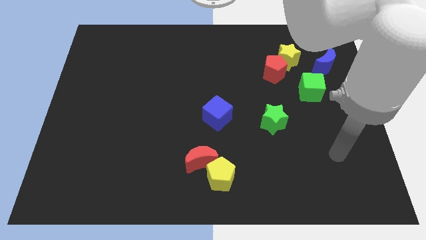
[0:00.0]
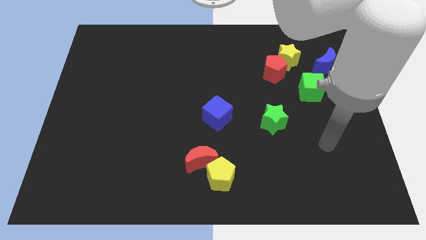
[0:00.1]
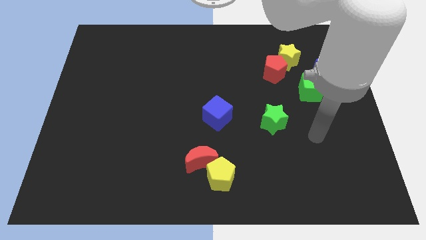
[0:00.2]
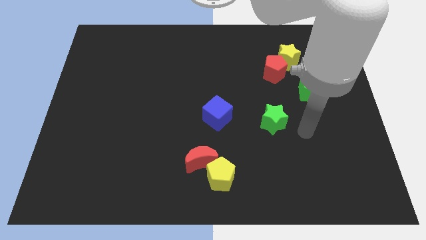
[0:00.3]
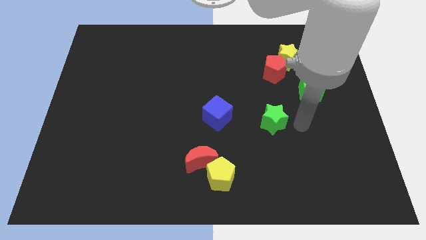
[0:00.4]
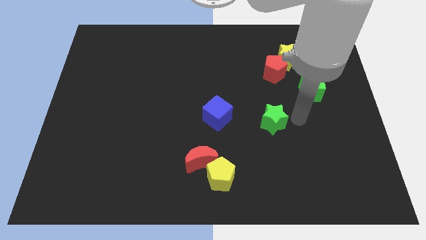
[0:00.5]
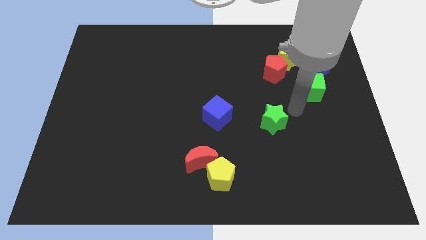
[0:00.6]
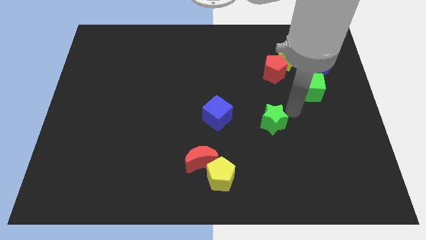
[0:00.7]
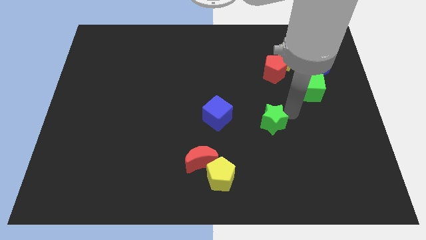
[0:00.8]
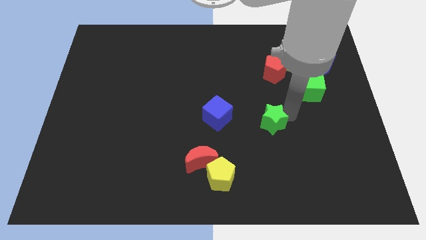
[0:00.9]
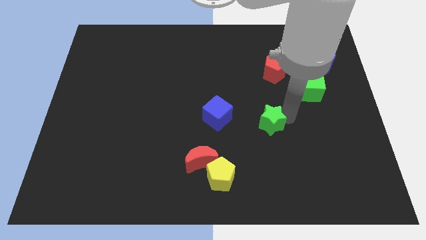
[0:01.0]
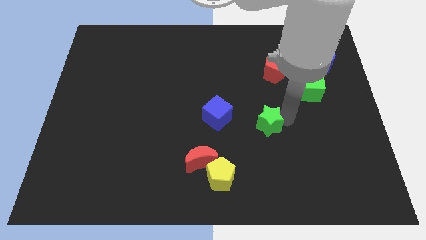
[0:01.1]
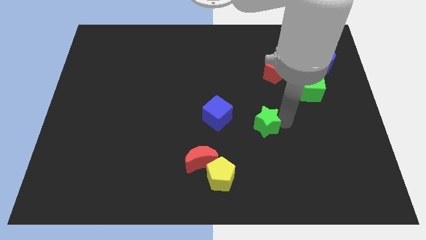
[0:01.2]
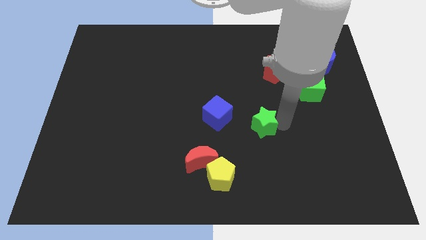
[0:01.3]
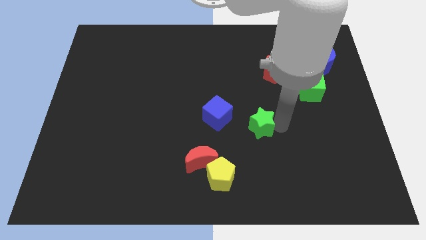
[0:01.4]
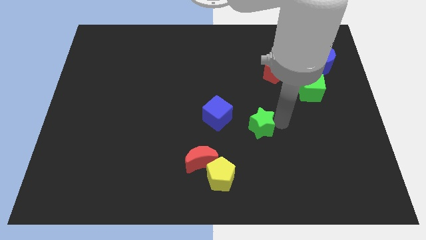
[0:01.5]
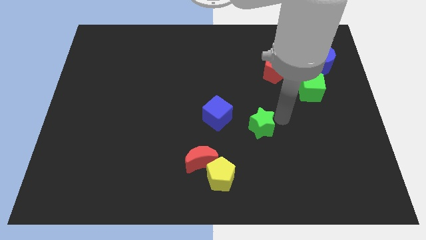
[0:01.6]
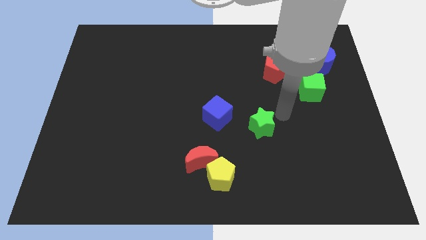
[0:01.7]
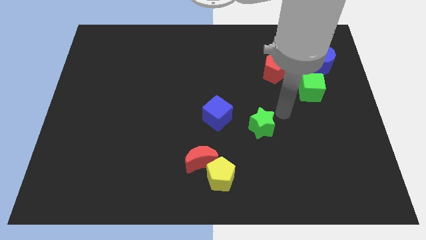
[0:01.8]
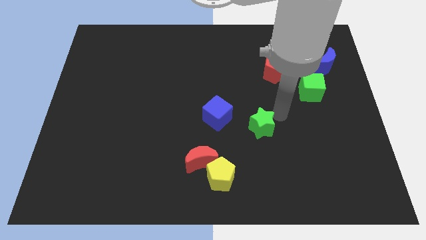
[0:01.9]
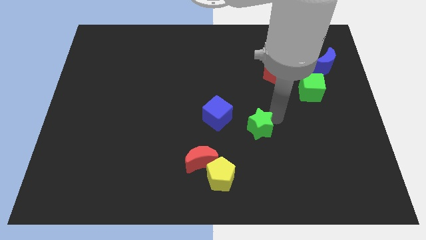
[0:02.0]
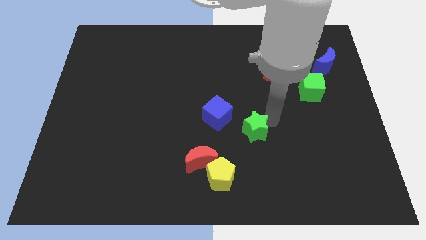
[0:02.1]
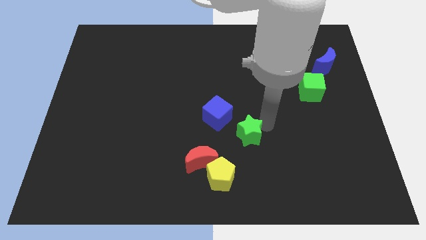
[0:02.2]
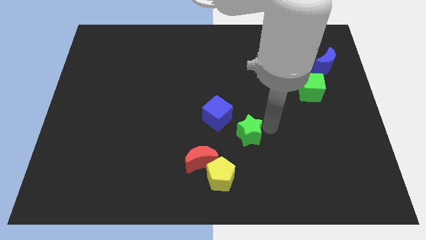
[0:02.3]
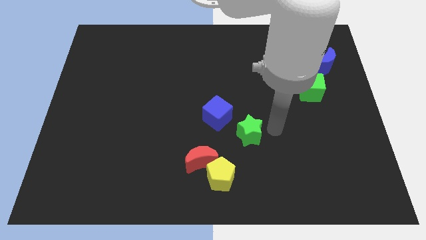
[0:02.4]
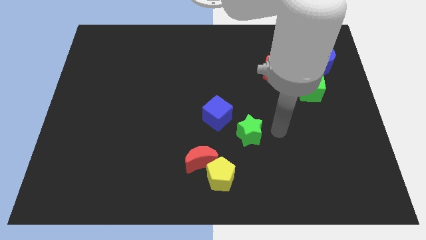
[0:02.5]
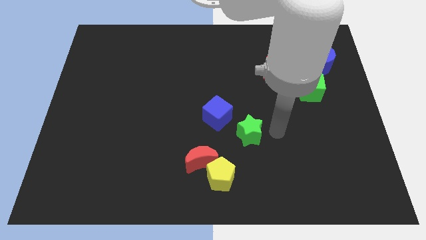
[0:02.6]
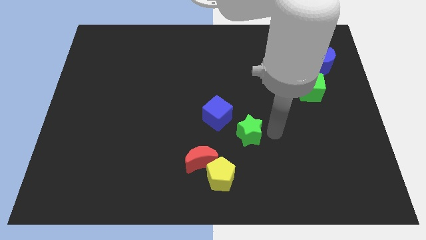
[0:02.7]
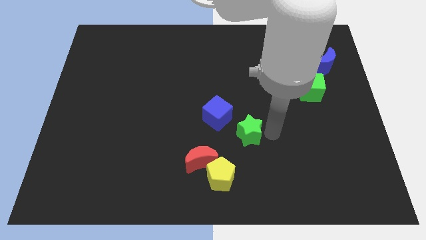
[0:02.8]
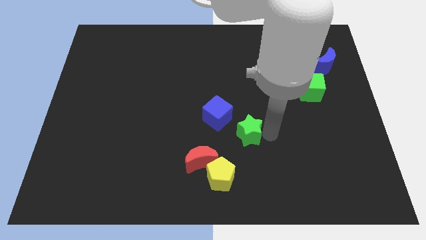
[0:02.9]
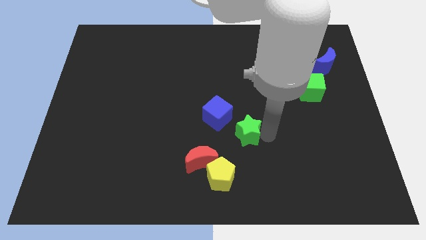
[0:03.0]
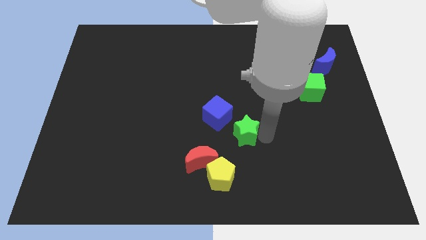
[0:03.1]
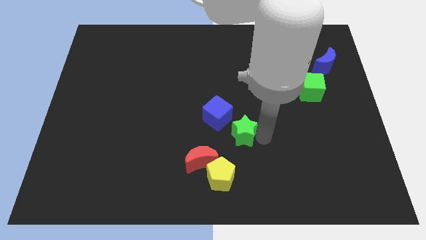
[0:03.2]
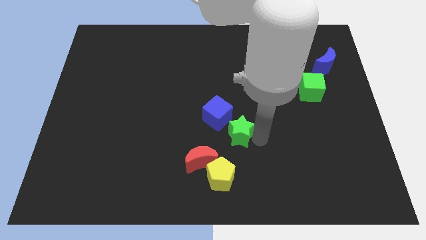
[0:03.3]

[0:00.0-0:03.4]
slightly push the green star left

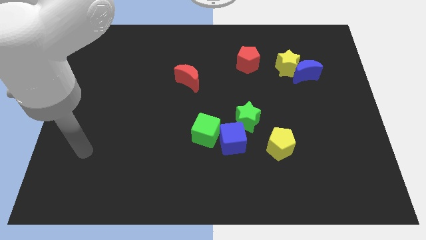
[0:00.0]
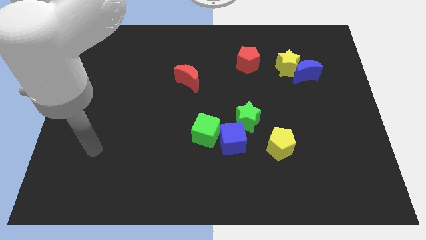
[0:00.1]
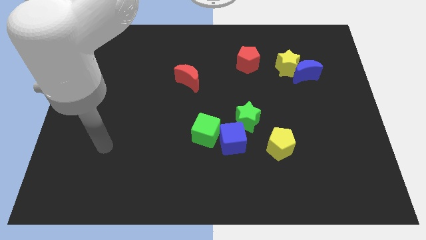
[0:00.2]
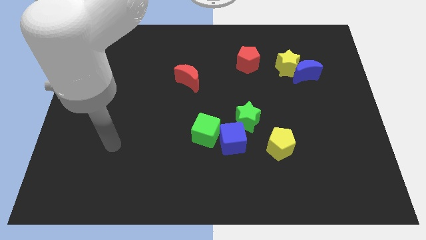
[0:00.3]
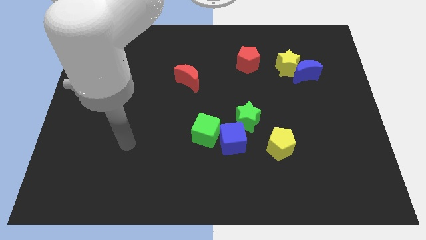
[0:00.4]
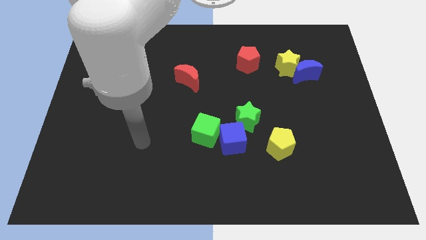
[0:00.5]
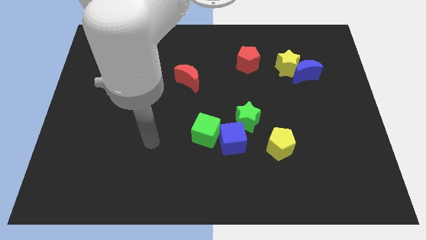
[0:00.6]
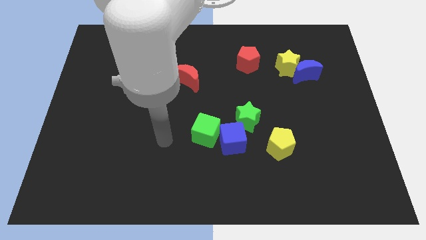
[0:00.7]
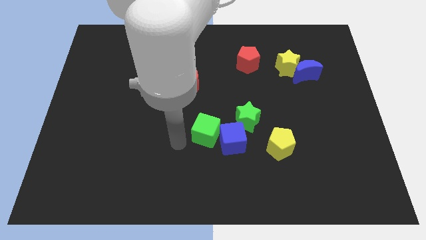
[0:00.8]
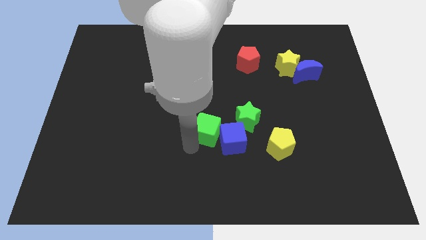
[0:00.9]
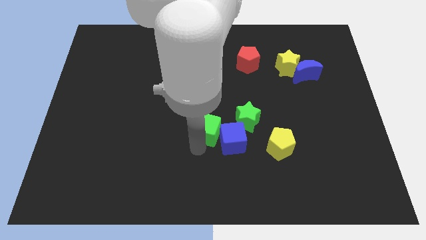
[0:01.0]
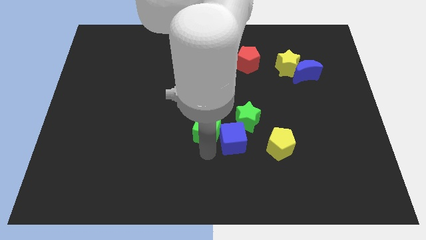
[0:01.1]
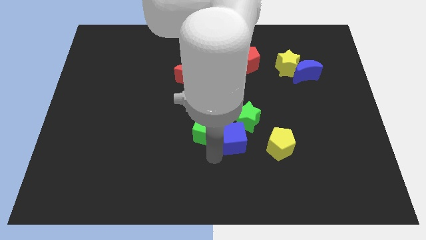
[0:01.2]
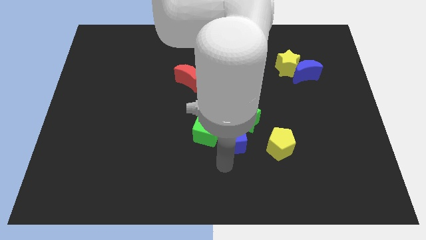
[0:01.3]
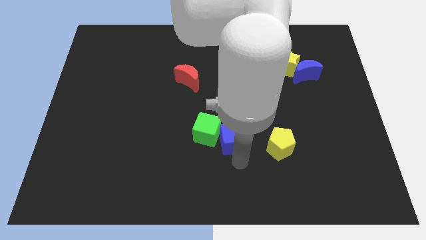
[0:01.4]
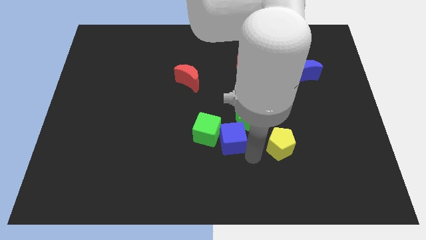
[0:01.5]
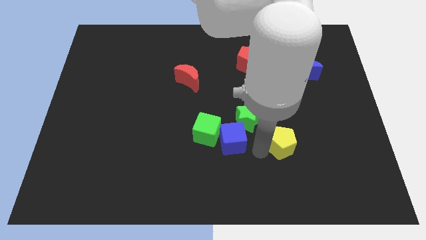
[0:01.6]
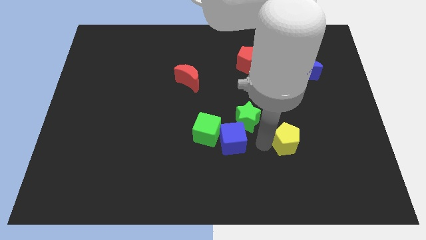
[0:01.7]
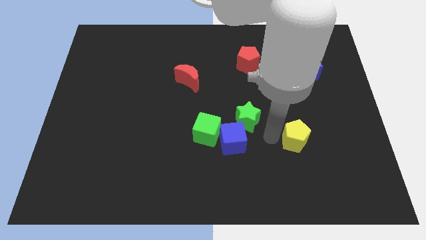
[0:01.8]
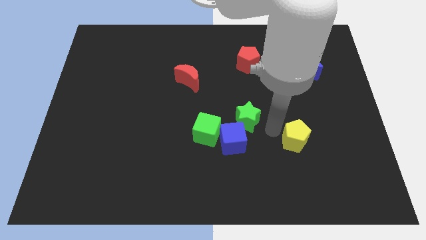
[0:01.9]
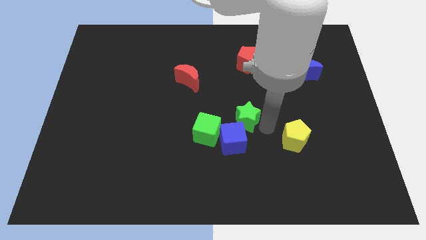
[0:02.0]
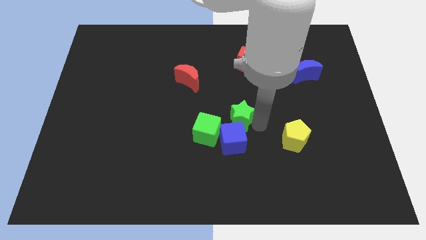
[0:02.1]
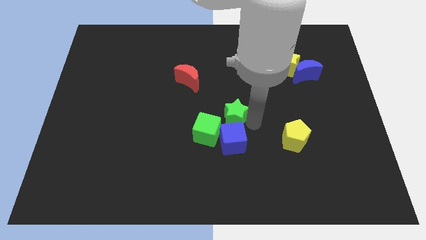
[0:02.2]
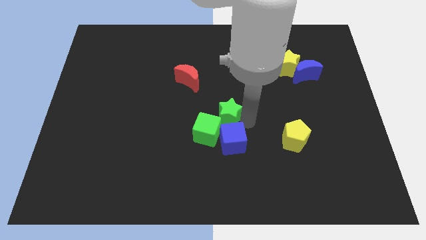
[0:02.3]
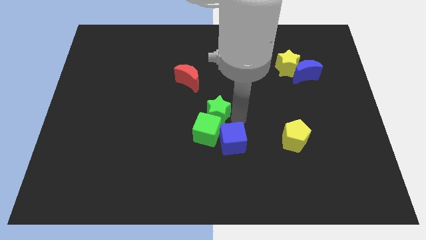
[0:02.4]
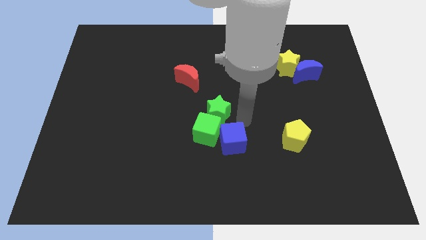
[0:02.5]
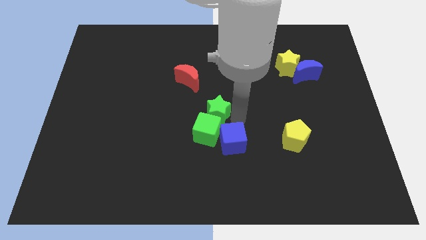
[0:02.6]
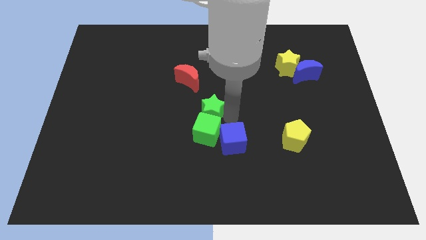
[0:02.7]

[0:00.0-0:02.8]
push the green star to the left somewhat

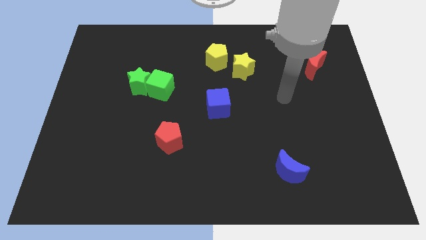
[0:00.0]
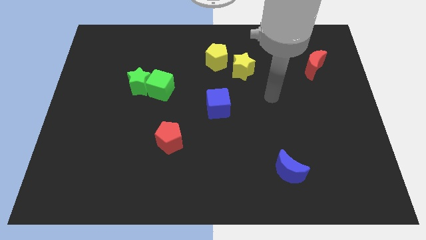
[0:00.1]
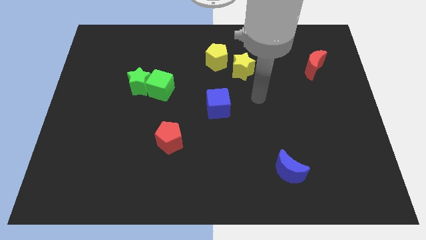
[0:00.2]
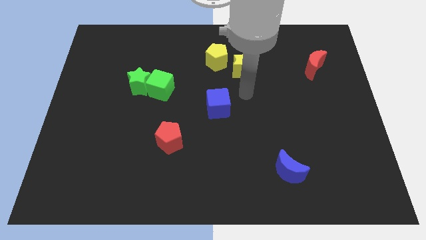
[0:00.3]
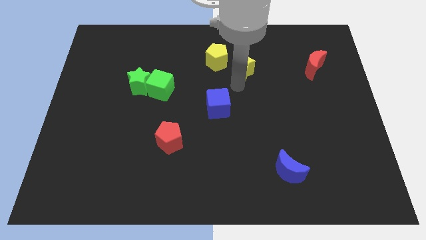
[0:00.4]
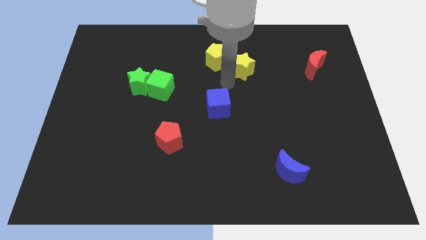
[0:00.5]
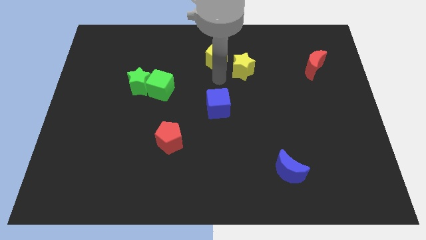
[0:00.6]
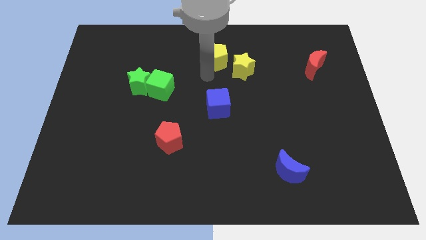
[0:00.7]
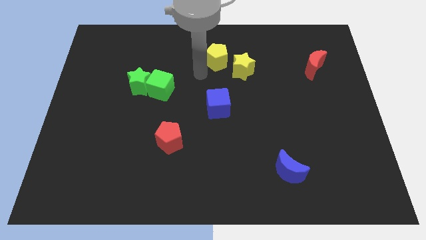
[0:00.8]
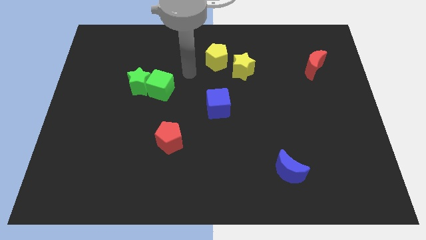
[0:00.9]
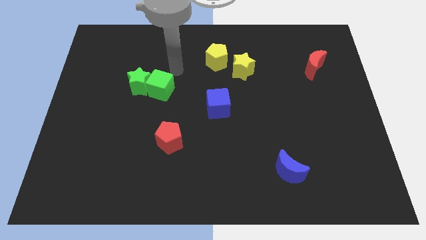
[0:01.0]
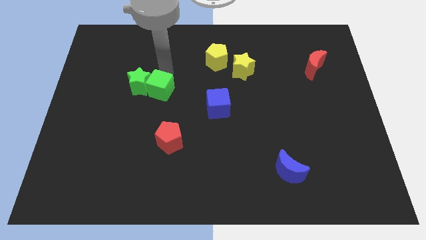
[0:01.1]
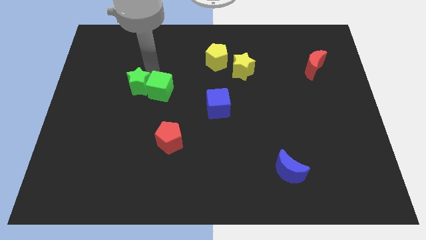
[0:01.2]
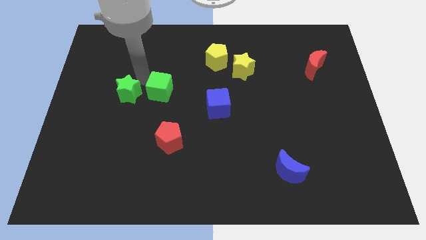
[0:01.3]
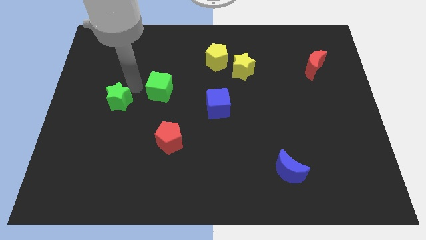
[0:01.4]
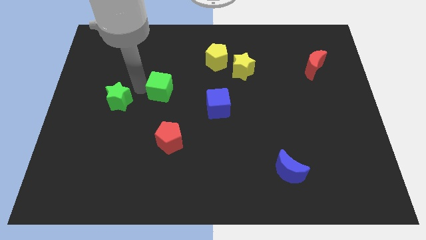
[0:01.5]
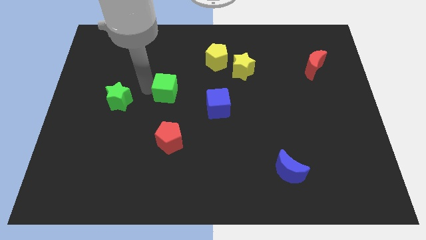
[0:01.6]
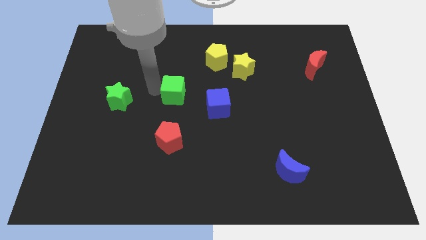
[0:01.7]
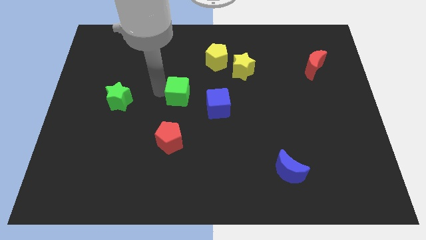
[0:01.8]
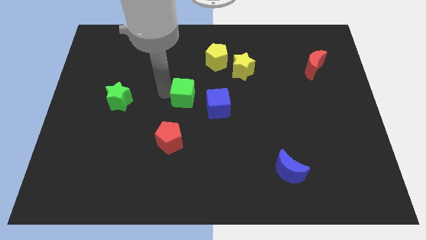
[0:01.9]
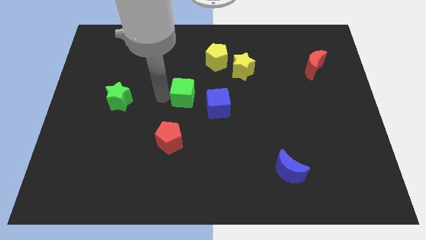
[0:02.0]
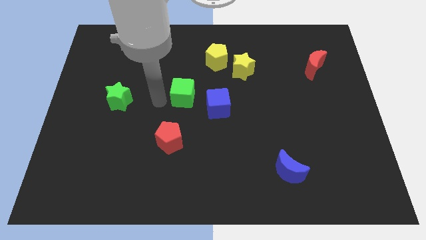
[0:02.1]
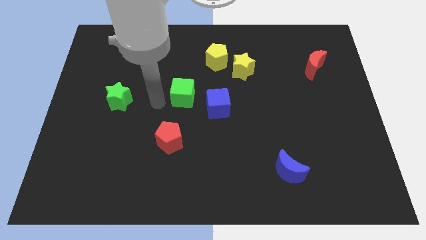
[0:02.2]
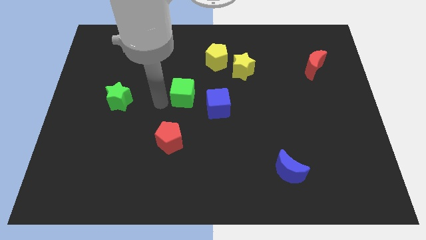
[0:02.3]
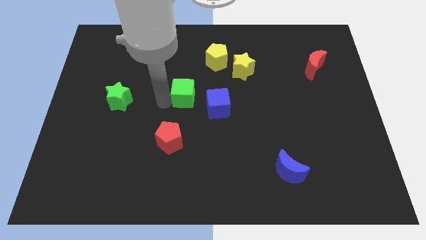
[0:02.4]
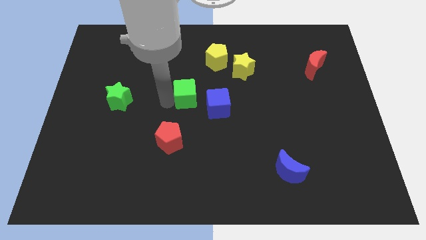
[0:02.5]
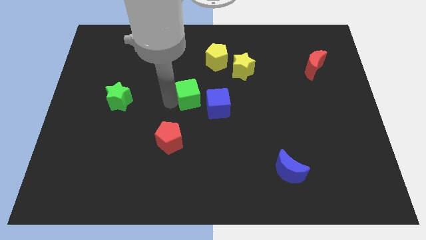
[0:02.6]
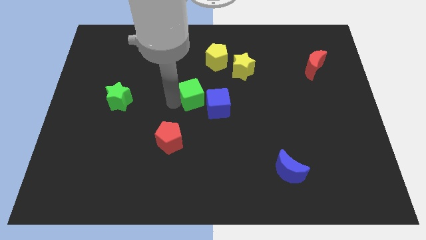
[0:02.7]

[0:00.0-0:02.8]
push the green cube a bit to the right
